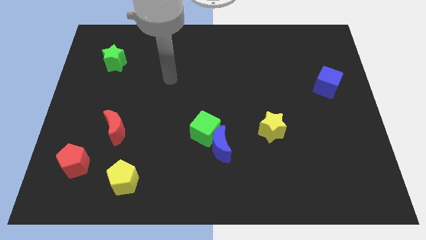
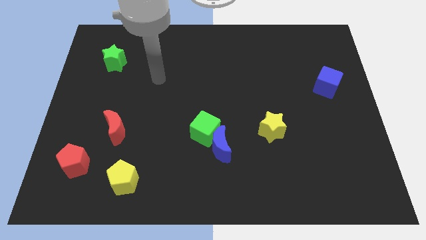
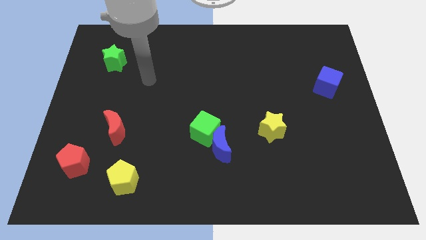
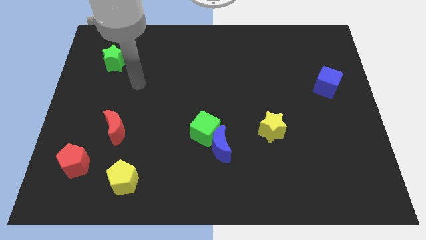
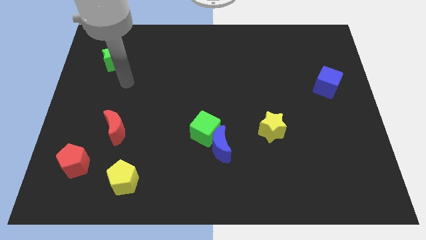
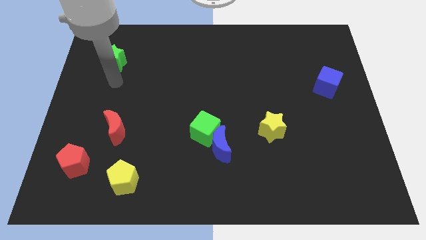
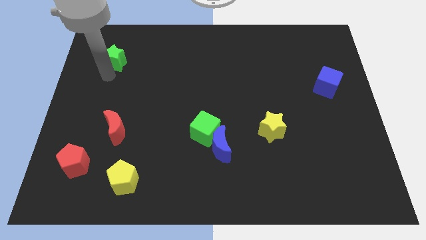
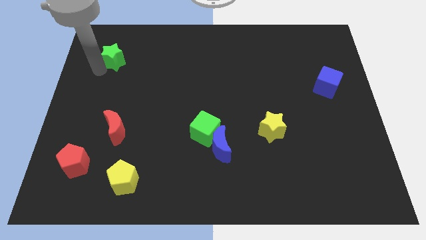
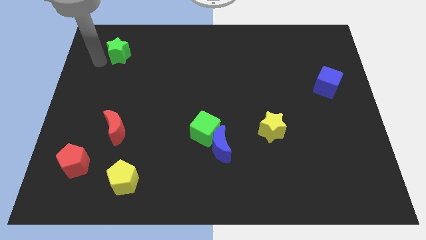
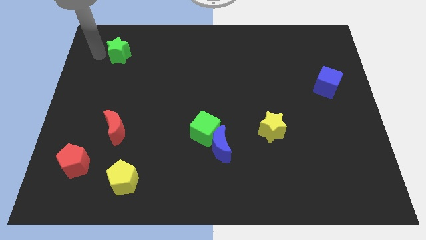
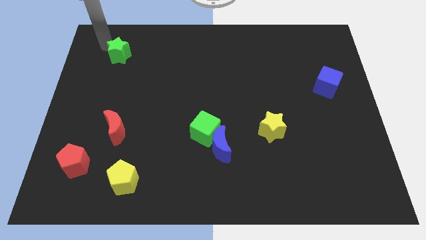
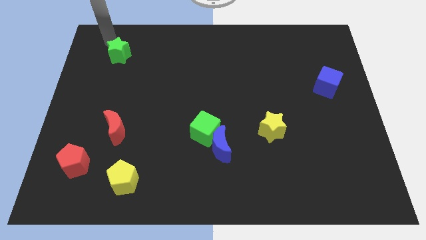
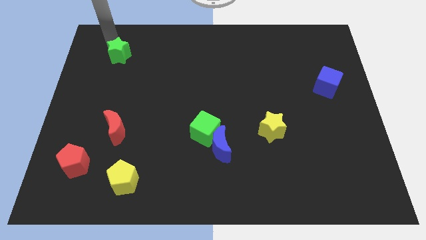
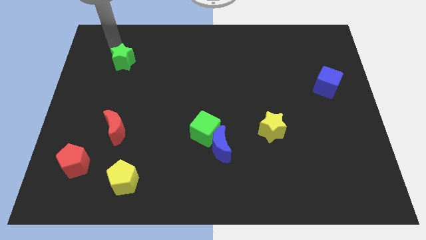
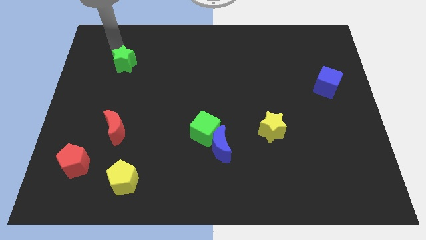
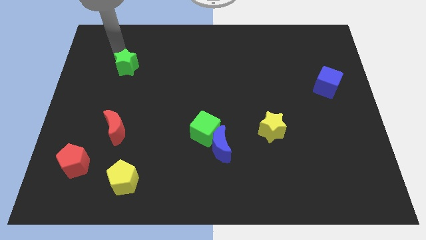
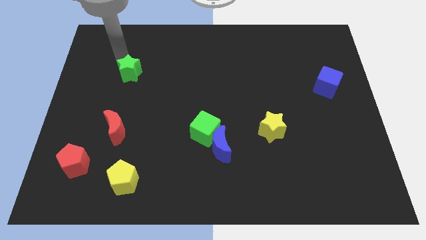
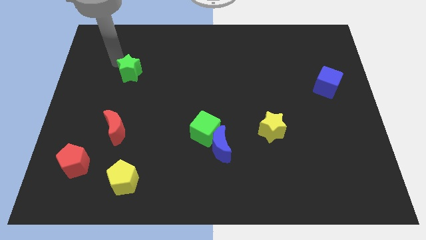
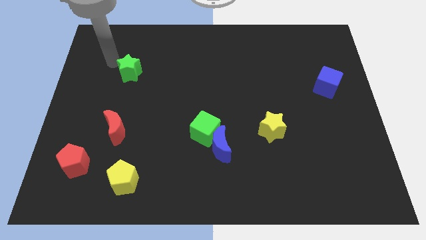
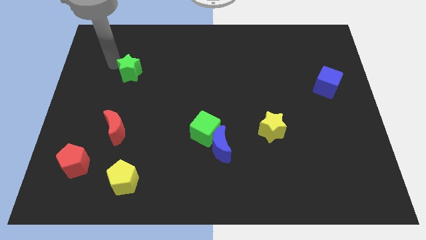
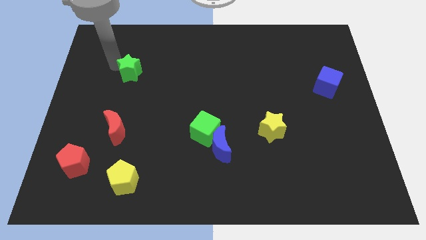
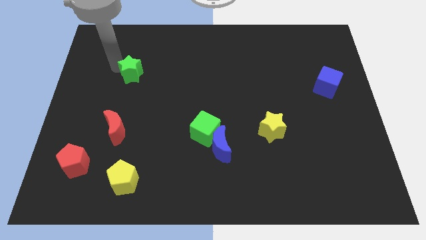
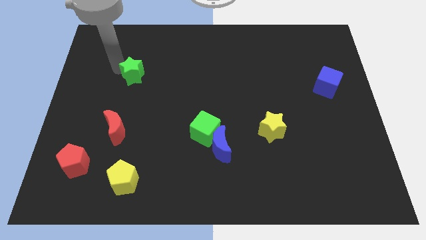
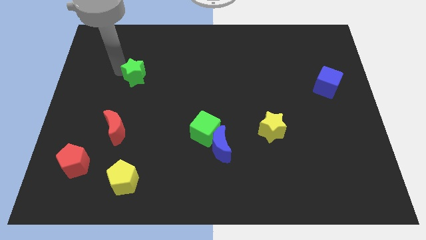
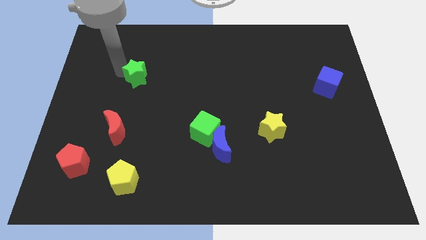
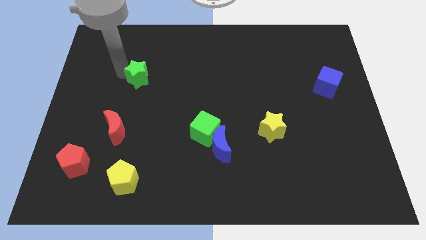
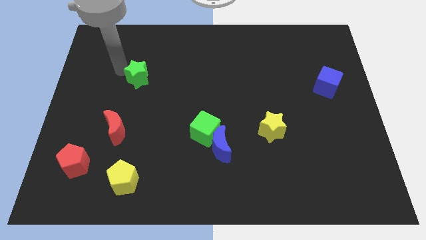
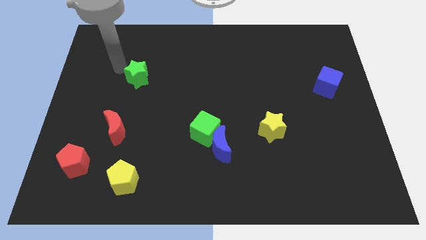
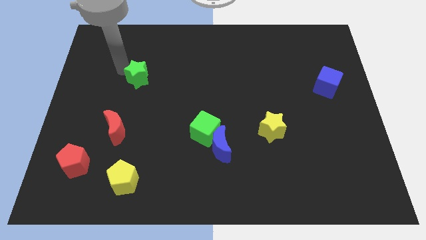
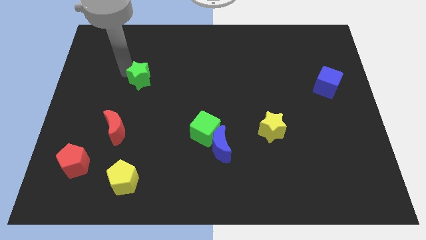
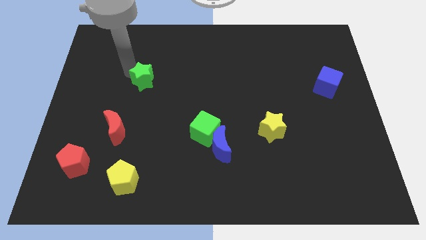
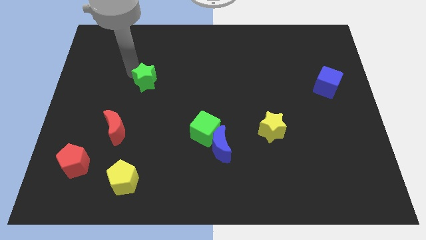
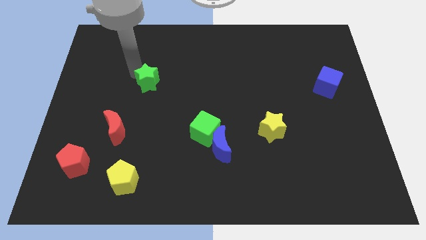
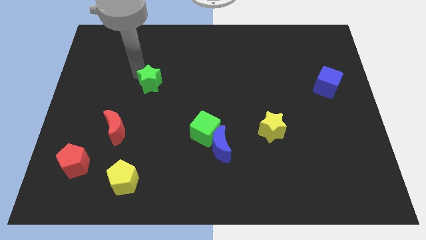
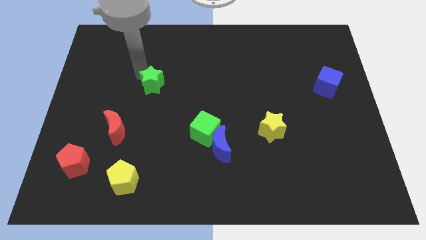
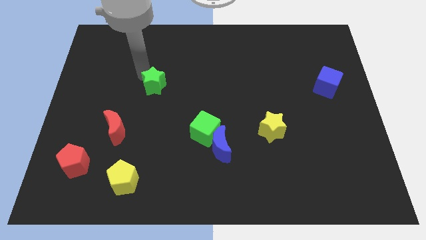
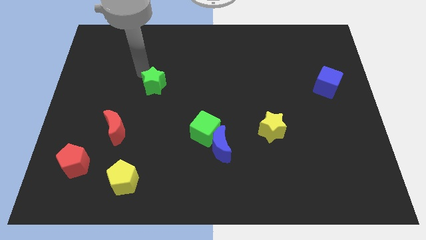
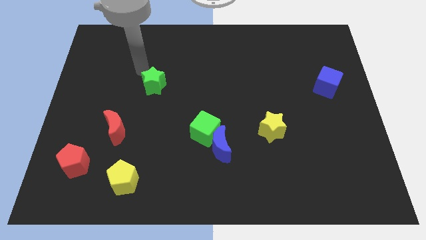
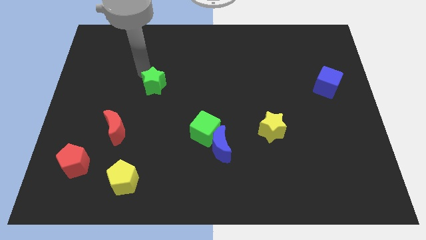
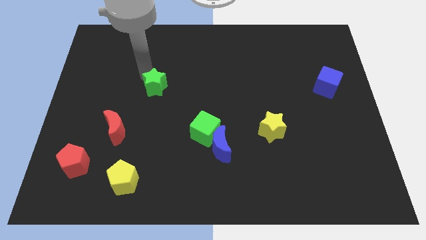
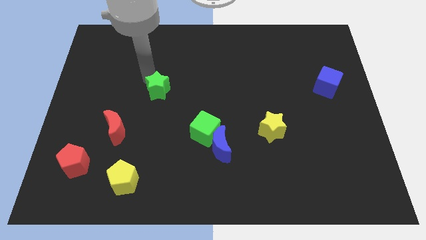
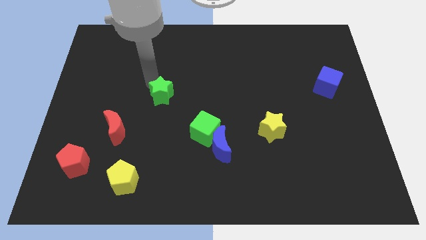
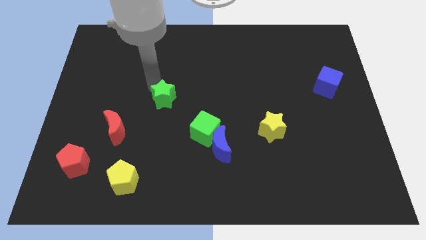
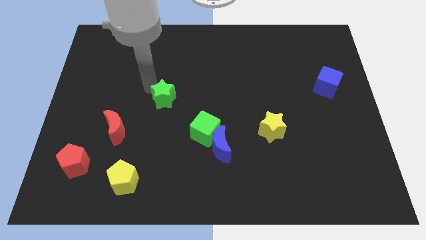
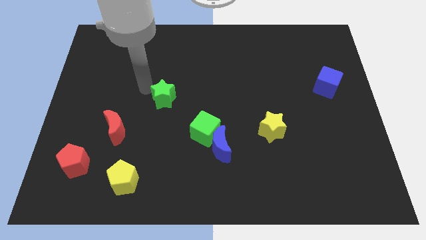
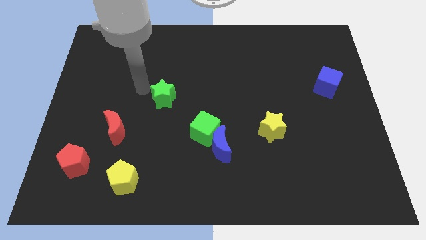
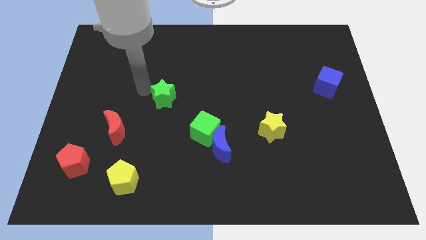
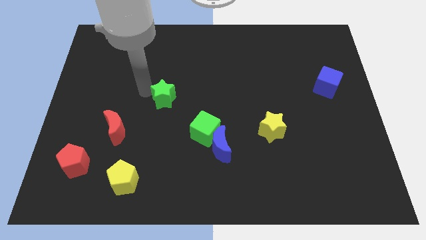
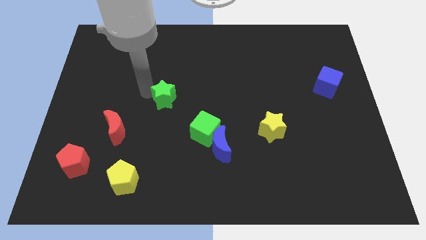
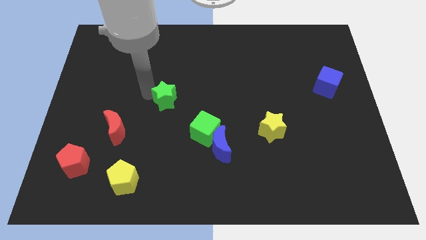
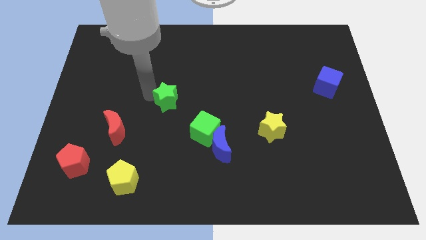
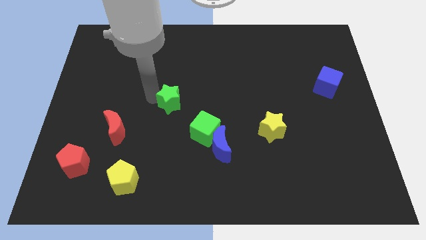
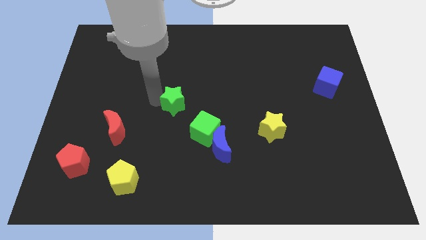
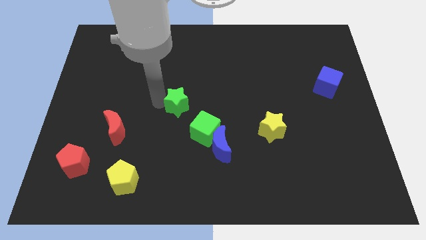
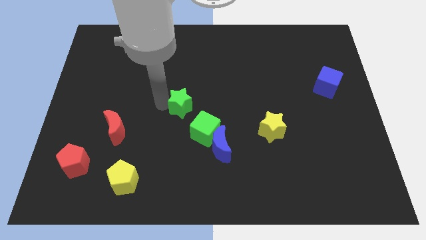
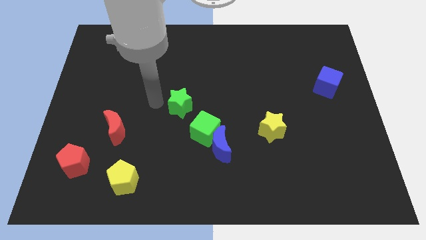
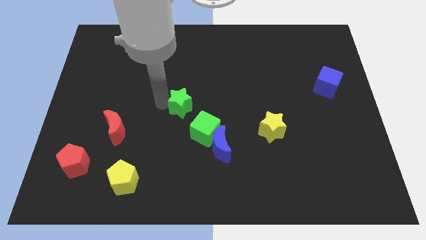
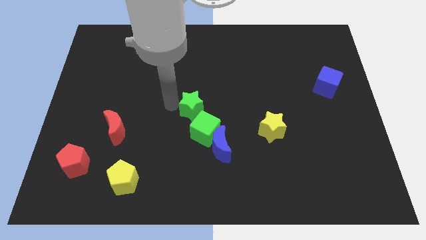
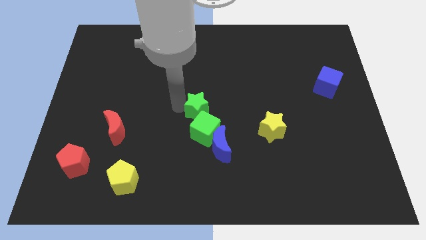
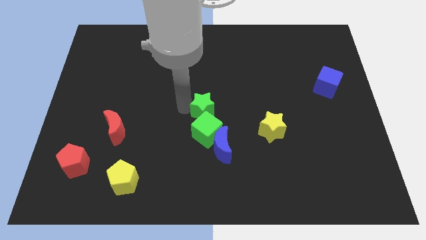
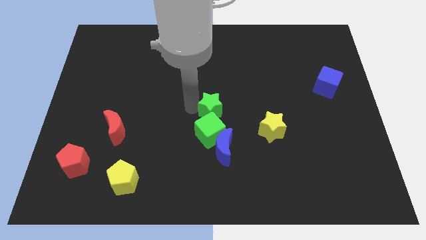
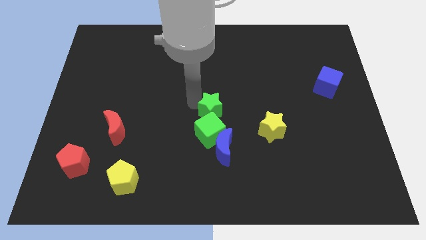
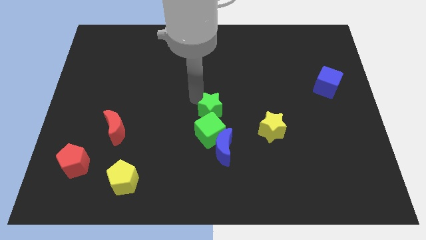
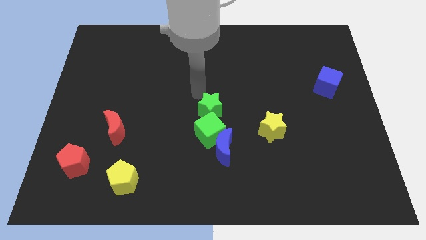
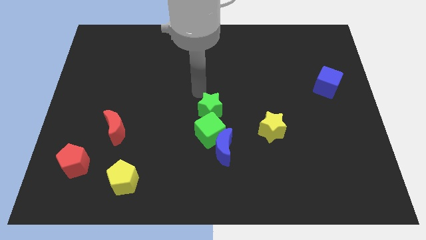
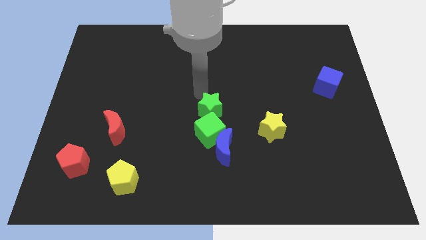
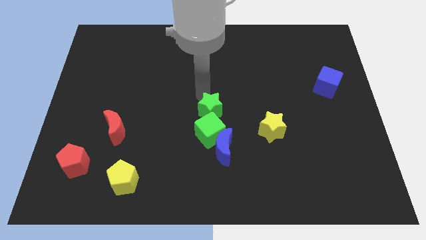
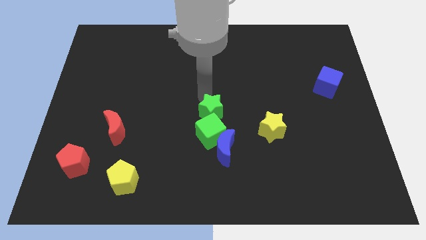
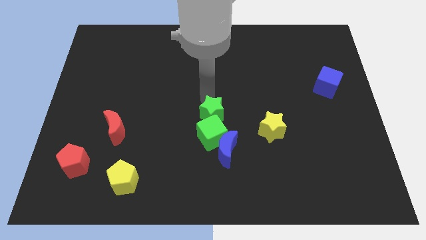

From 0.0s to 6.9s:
slide the green star left of the yellow star

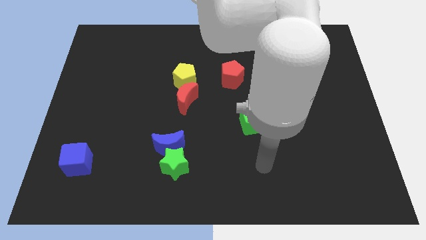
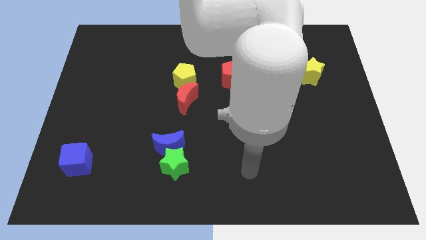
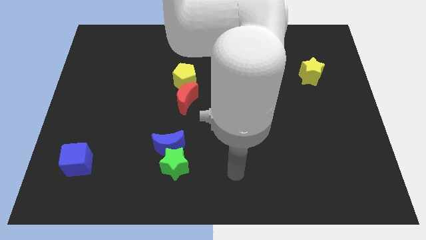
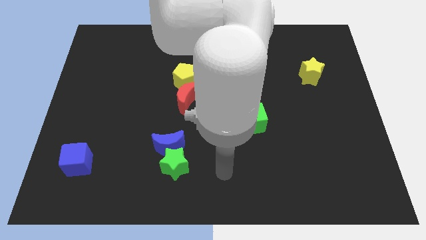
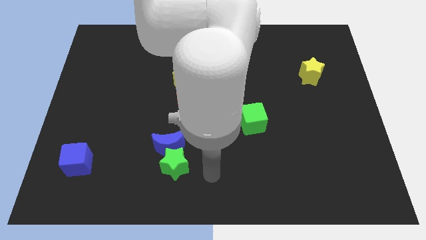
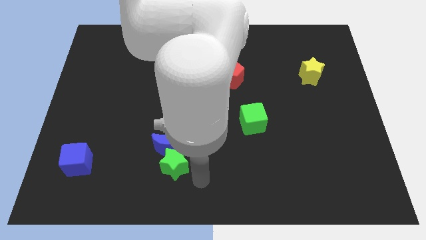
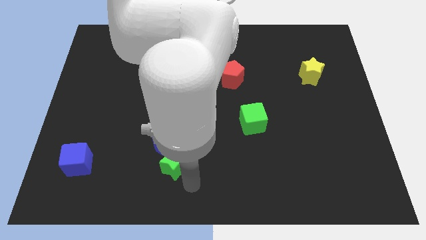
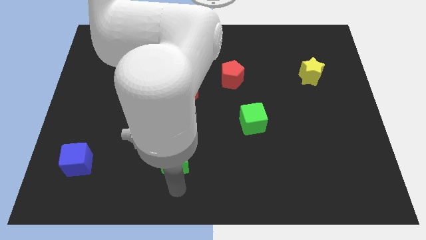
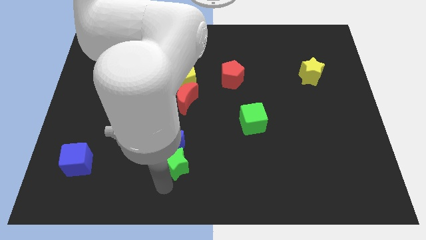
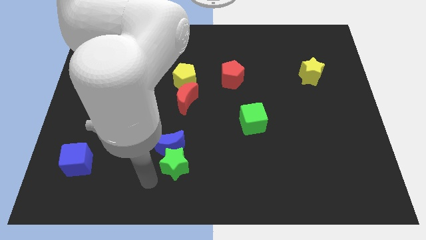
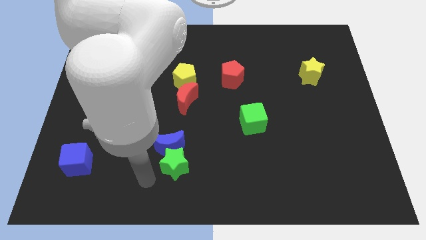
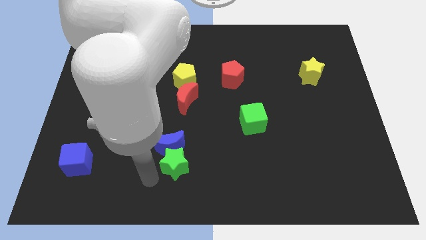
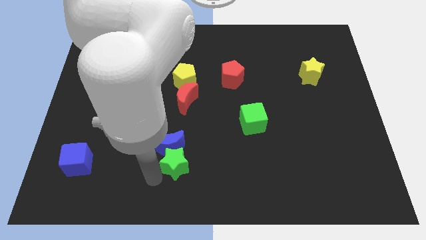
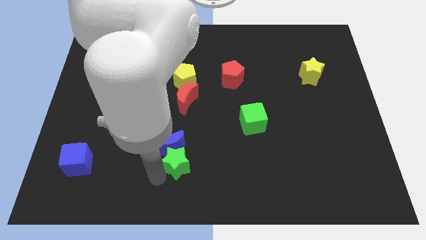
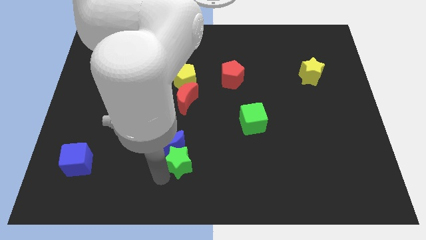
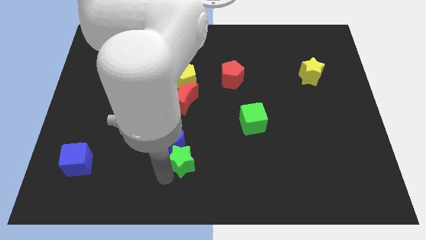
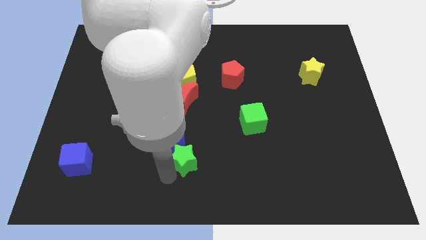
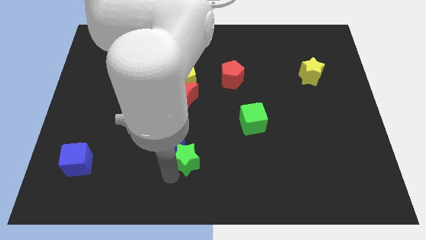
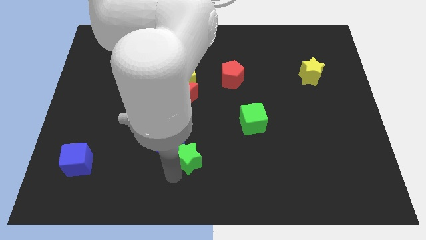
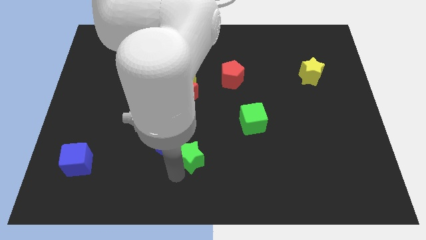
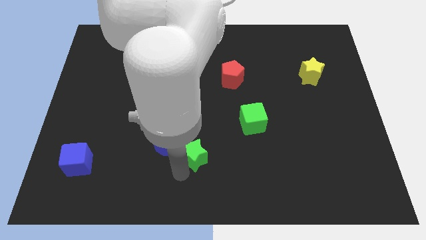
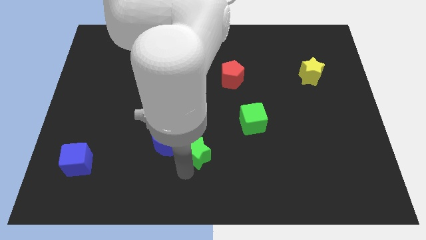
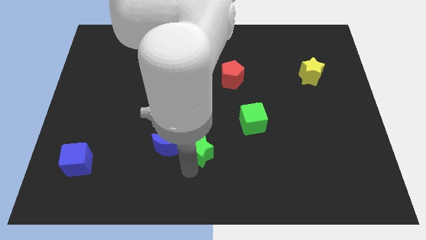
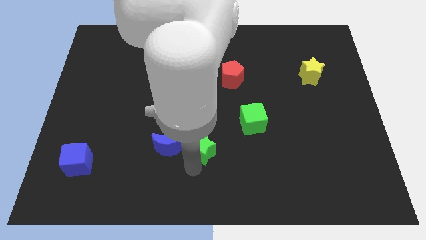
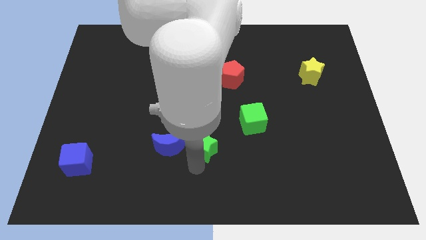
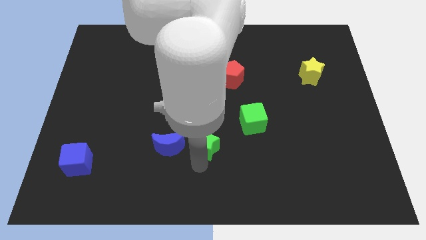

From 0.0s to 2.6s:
move the green star diagonally down and to the left of the green cube
